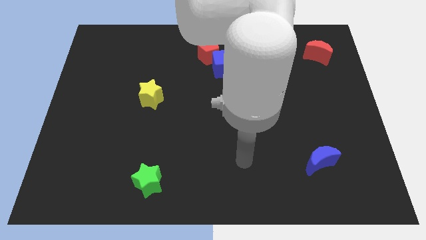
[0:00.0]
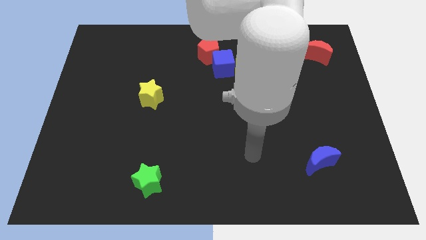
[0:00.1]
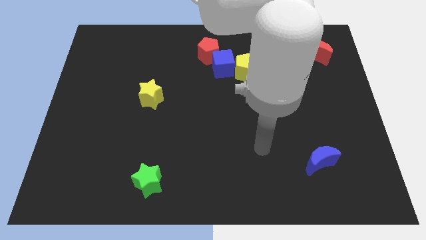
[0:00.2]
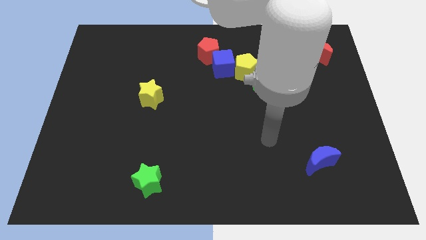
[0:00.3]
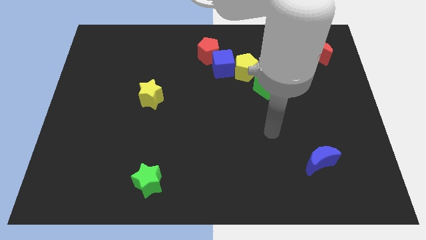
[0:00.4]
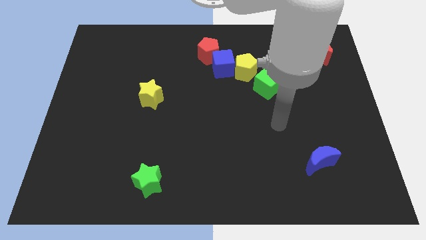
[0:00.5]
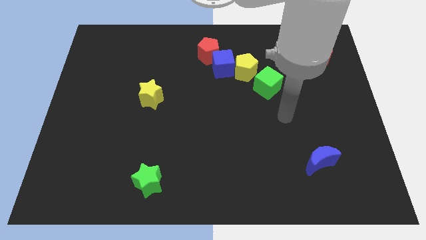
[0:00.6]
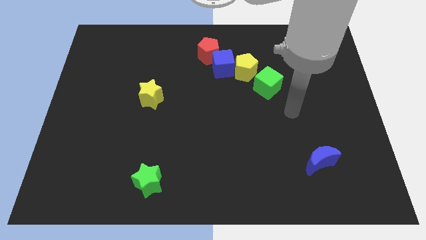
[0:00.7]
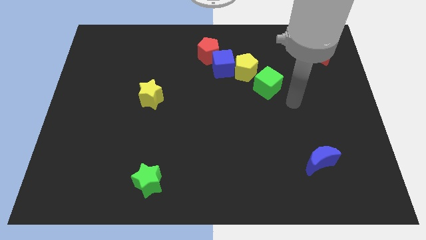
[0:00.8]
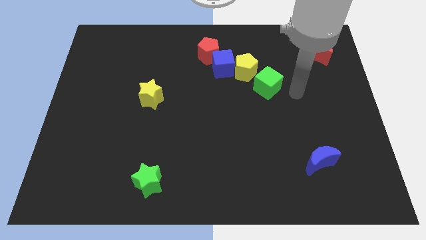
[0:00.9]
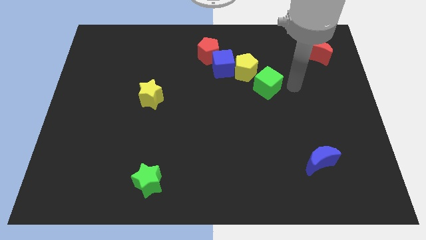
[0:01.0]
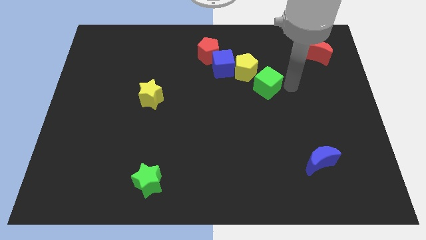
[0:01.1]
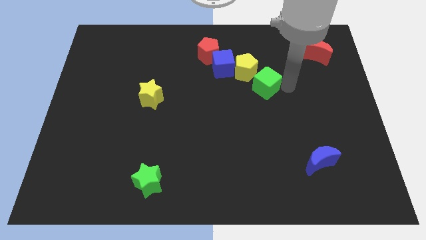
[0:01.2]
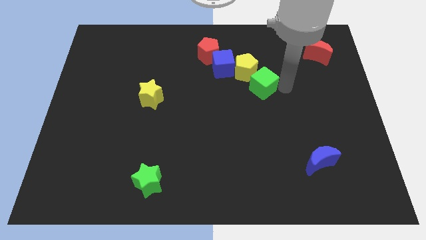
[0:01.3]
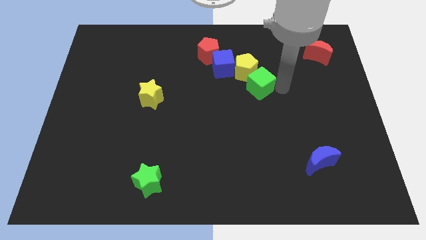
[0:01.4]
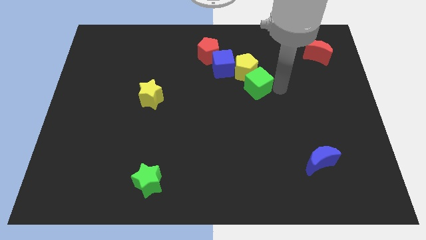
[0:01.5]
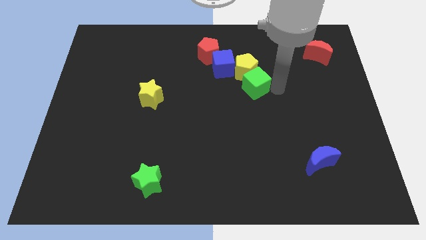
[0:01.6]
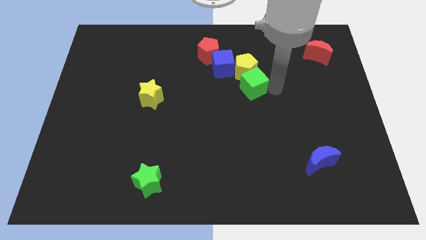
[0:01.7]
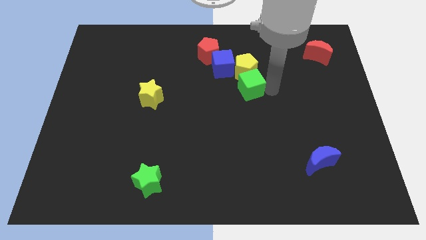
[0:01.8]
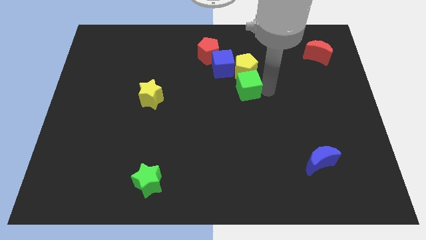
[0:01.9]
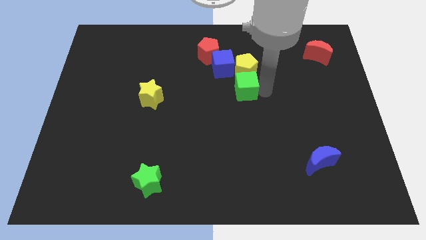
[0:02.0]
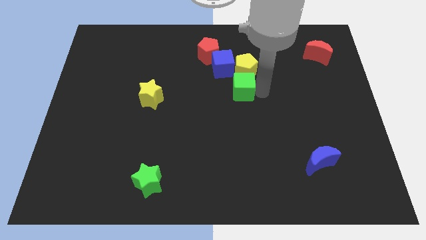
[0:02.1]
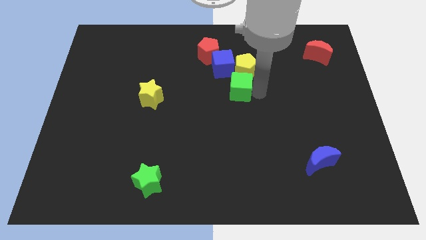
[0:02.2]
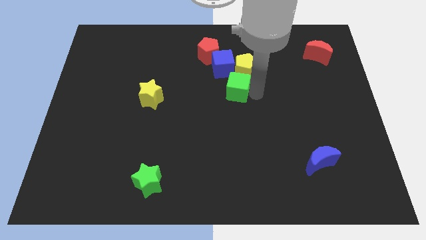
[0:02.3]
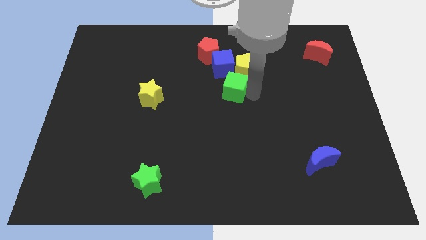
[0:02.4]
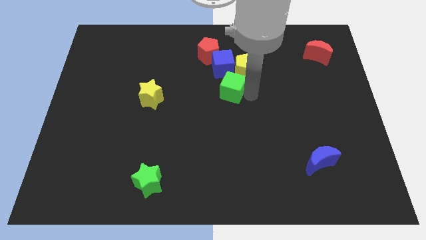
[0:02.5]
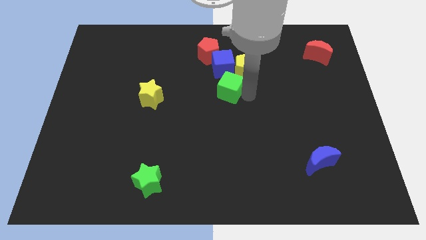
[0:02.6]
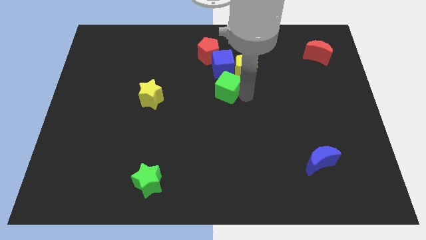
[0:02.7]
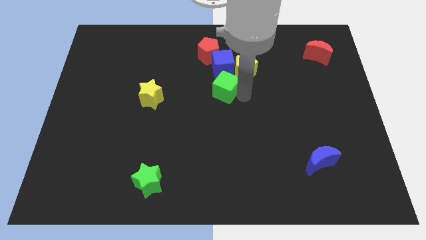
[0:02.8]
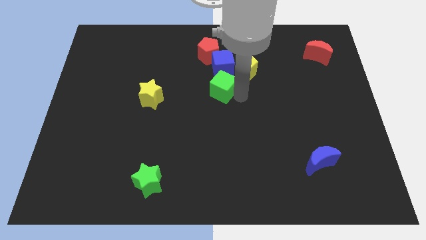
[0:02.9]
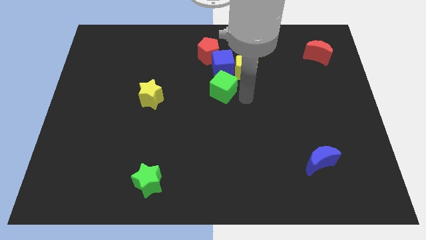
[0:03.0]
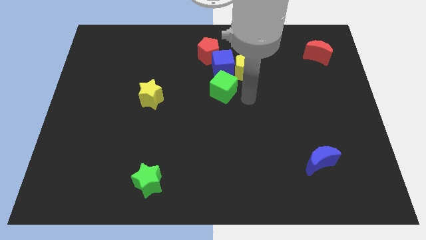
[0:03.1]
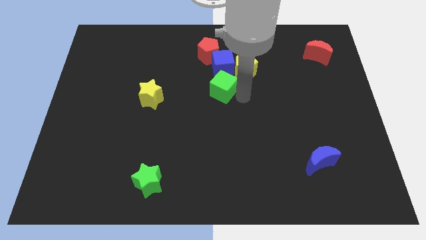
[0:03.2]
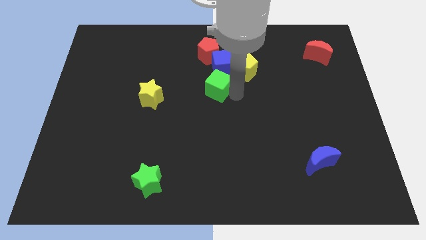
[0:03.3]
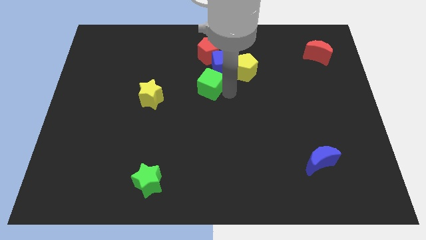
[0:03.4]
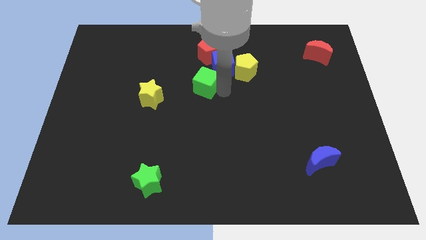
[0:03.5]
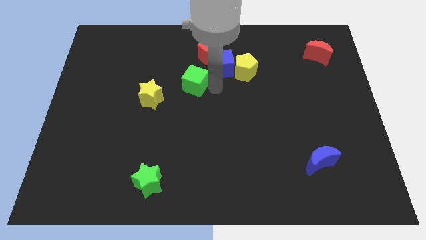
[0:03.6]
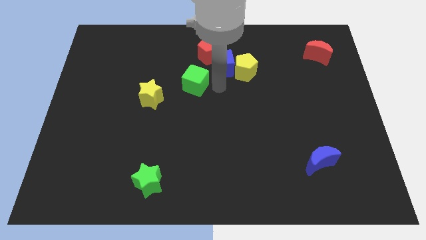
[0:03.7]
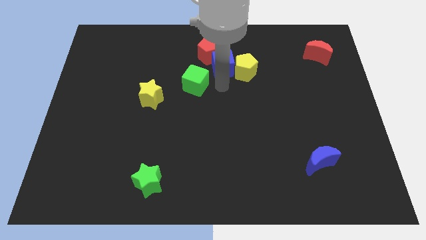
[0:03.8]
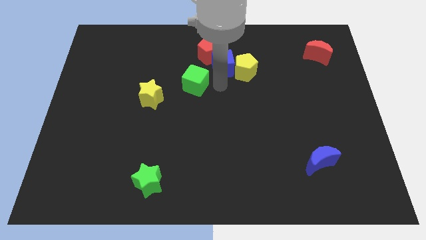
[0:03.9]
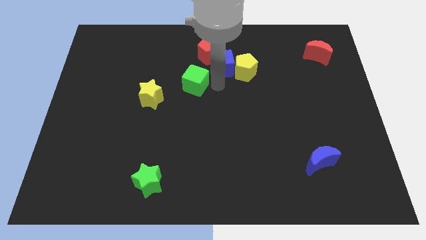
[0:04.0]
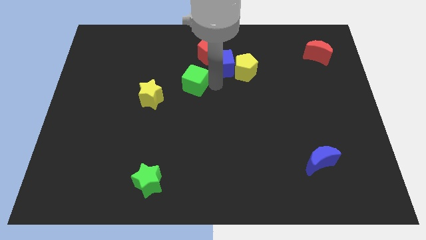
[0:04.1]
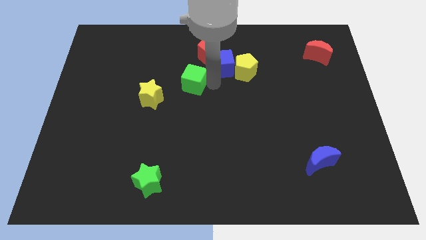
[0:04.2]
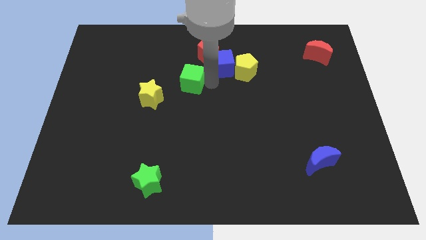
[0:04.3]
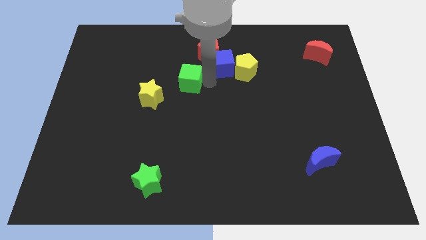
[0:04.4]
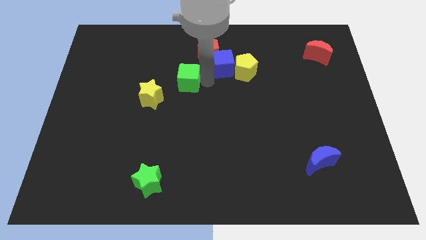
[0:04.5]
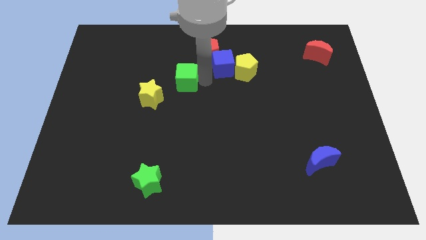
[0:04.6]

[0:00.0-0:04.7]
move the green cube left

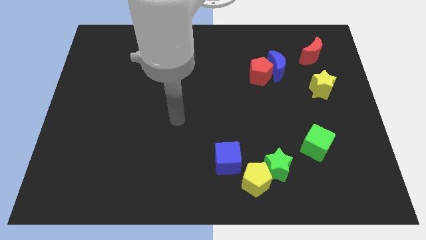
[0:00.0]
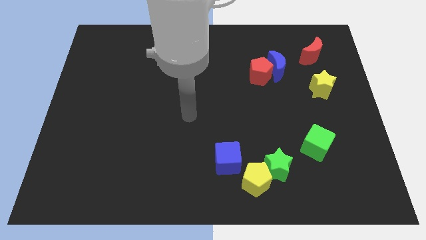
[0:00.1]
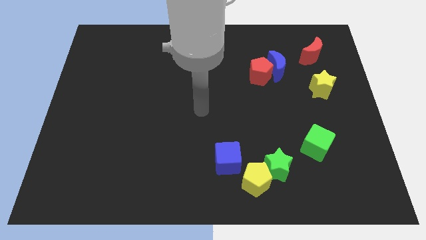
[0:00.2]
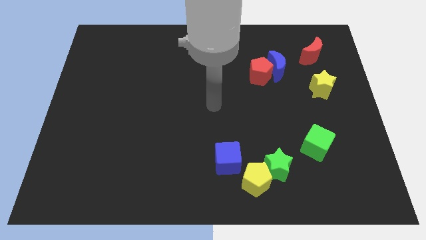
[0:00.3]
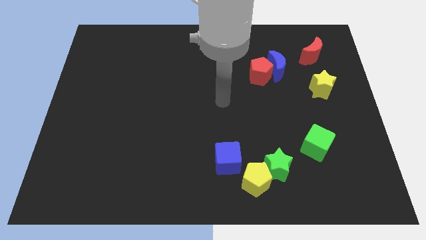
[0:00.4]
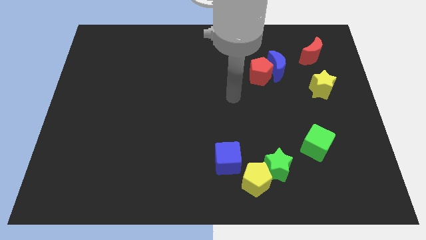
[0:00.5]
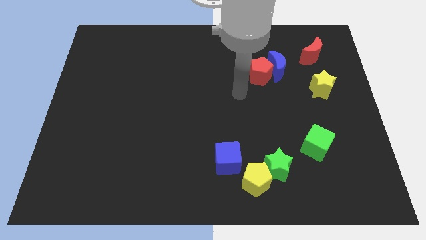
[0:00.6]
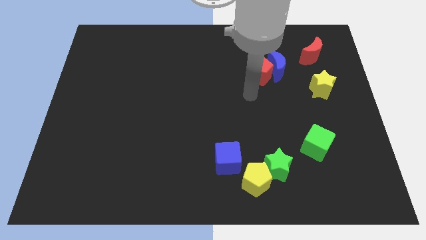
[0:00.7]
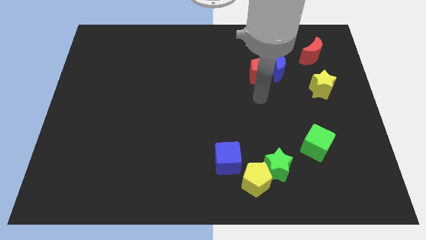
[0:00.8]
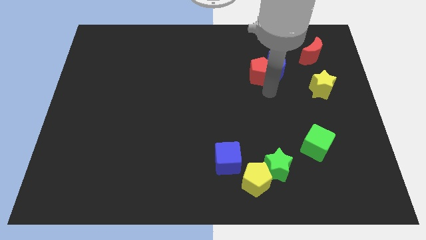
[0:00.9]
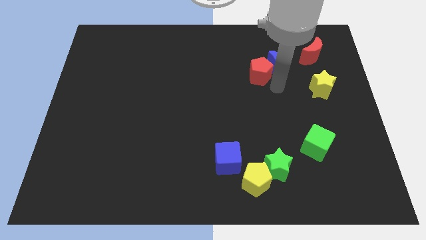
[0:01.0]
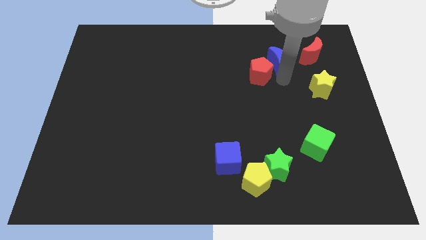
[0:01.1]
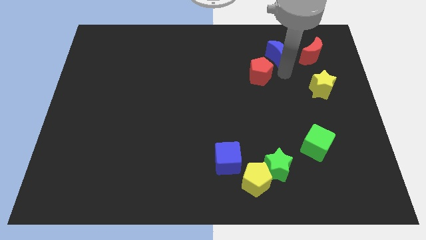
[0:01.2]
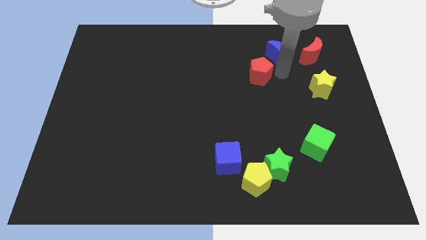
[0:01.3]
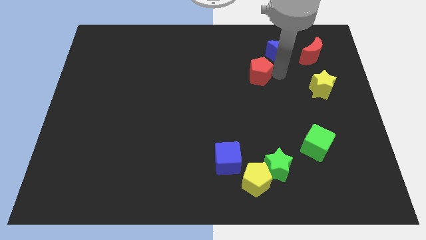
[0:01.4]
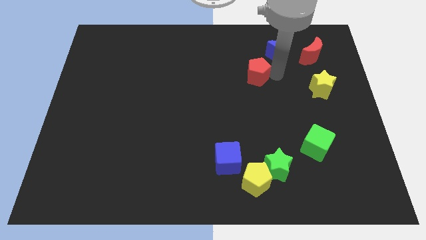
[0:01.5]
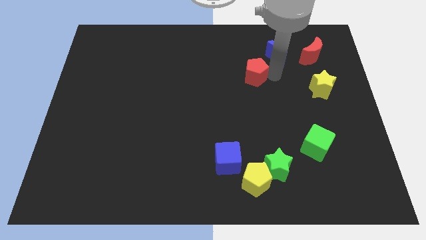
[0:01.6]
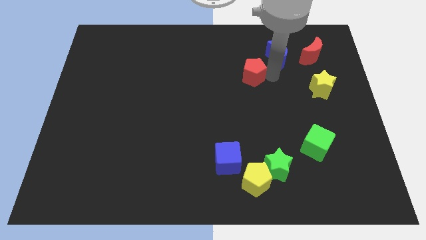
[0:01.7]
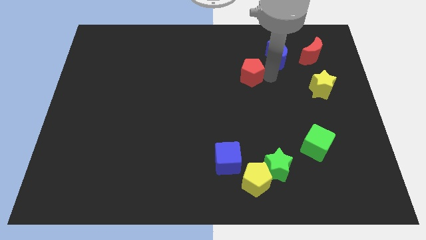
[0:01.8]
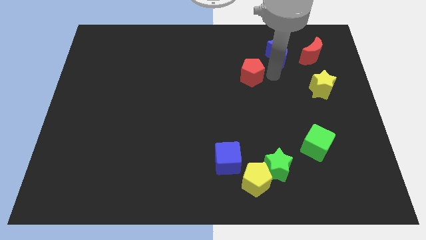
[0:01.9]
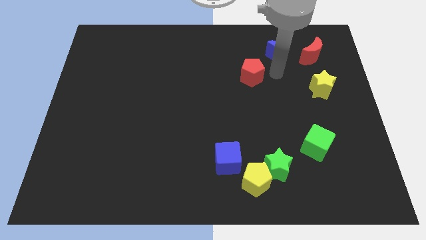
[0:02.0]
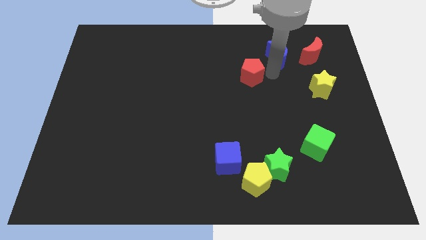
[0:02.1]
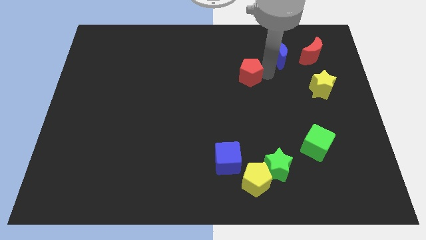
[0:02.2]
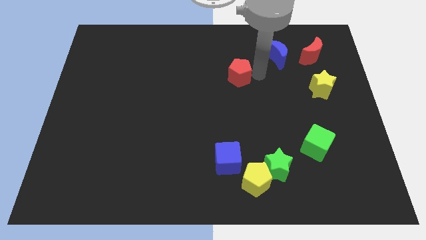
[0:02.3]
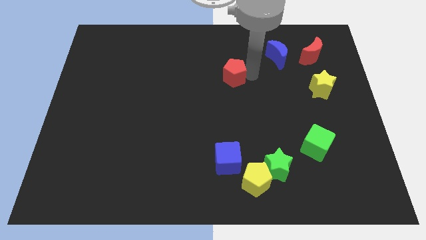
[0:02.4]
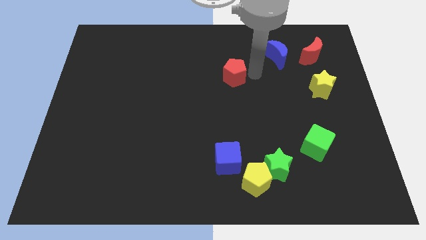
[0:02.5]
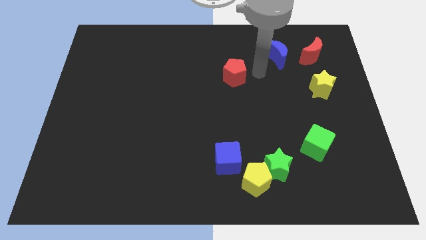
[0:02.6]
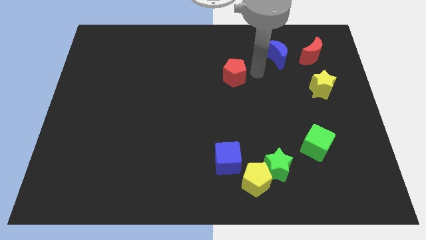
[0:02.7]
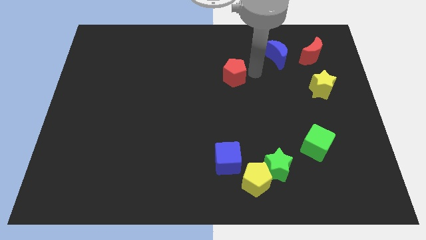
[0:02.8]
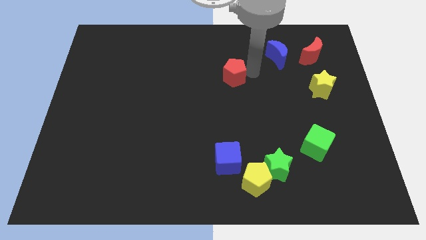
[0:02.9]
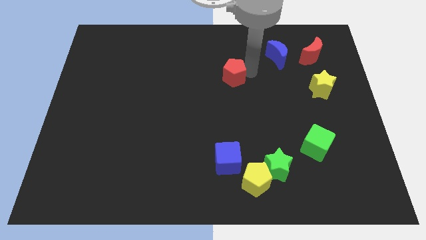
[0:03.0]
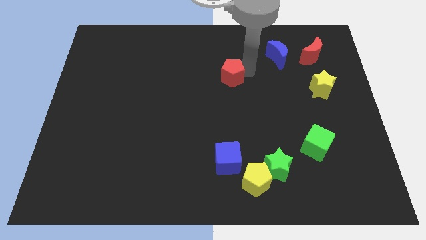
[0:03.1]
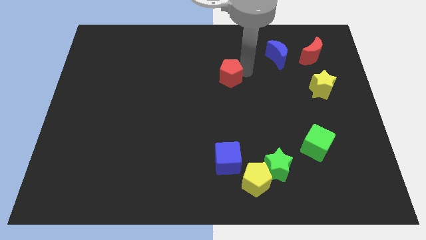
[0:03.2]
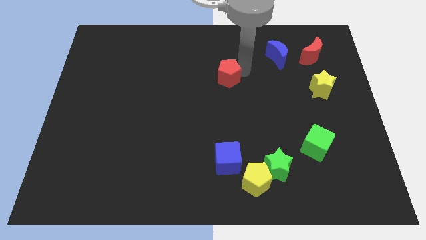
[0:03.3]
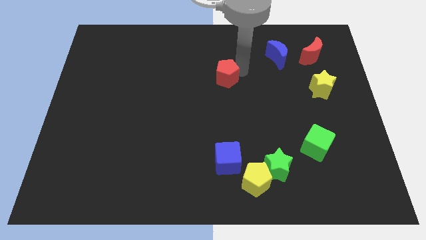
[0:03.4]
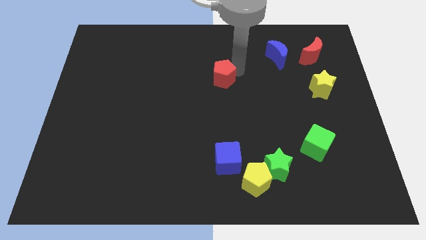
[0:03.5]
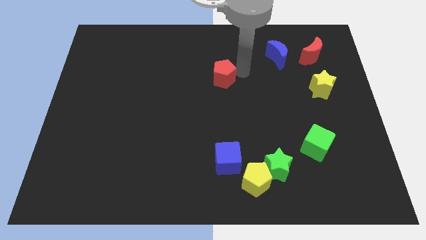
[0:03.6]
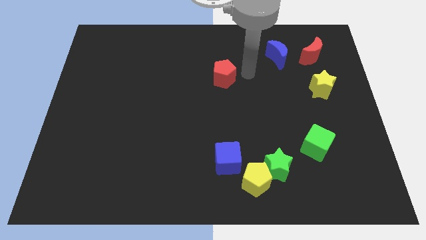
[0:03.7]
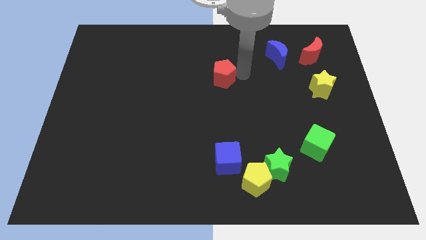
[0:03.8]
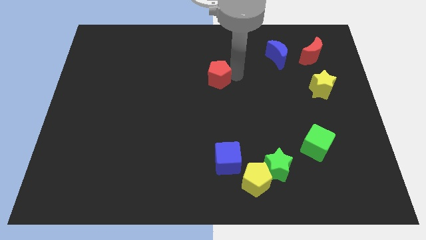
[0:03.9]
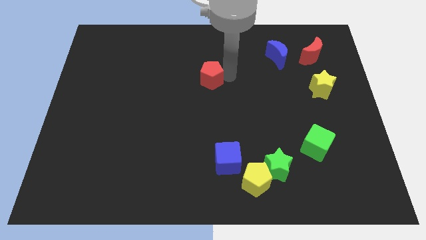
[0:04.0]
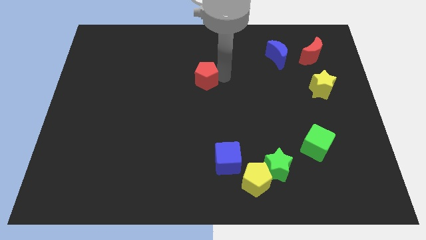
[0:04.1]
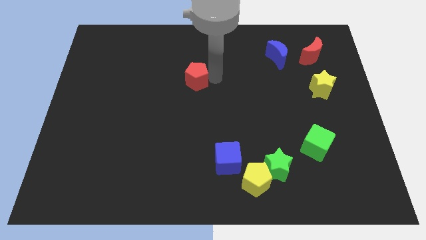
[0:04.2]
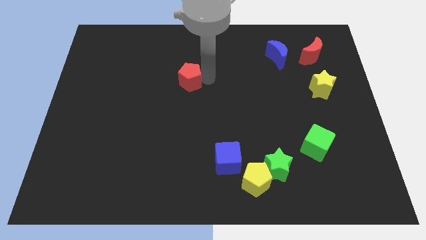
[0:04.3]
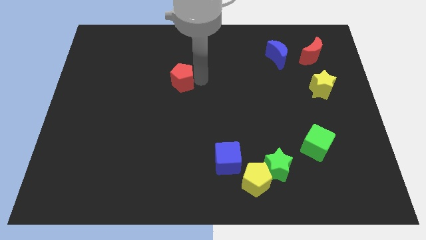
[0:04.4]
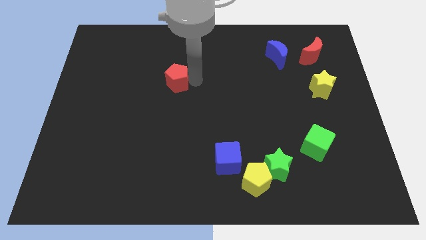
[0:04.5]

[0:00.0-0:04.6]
slide the red pentagon left
